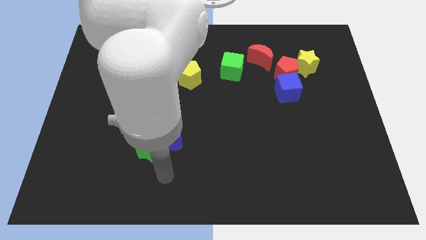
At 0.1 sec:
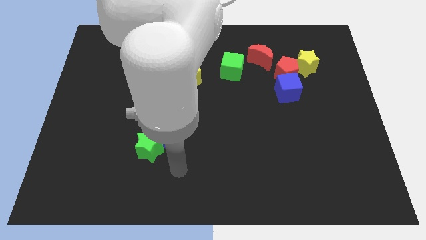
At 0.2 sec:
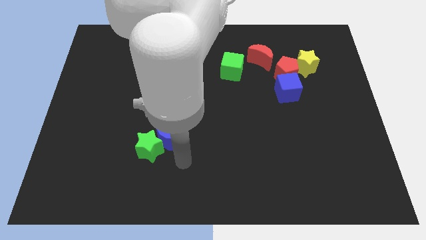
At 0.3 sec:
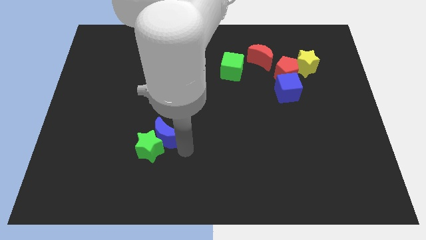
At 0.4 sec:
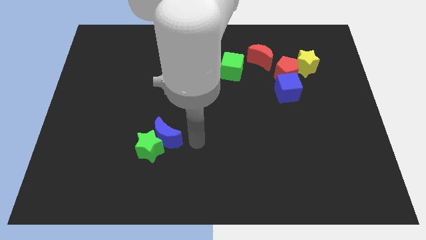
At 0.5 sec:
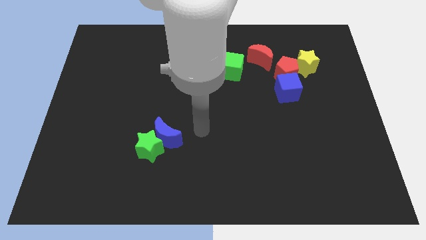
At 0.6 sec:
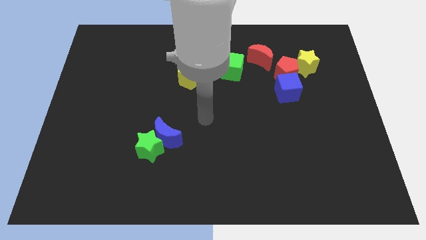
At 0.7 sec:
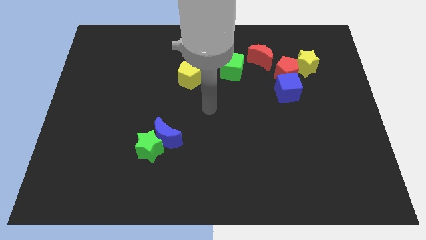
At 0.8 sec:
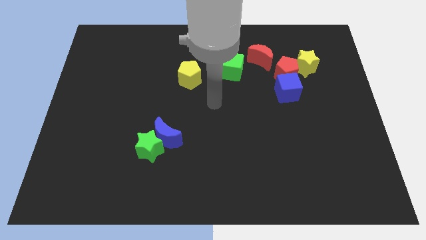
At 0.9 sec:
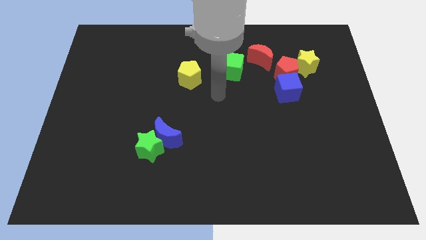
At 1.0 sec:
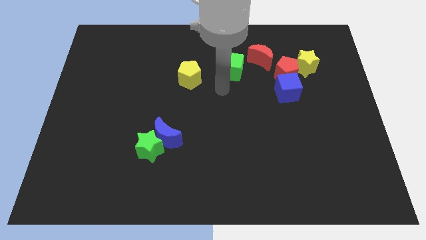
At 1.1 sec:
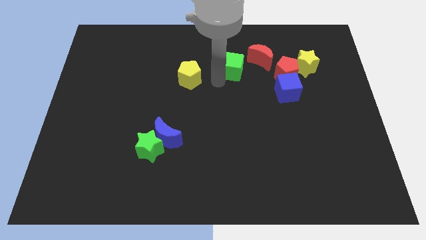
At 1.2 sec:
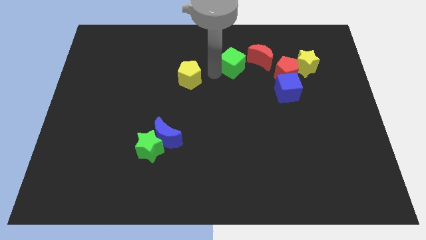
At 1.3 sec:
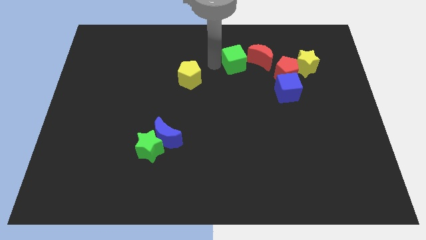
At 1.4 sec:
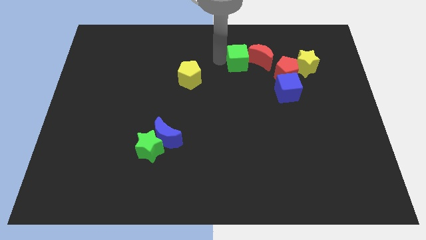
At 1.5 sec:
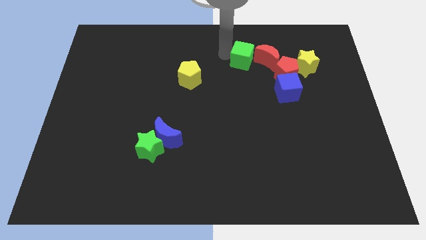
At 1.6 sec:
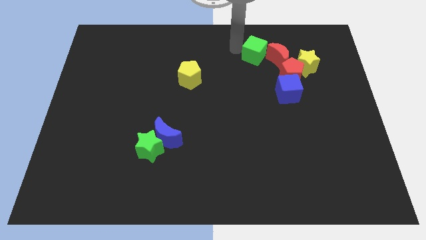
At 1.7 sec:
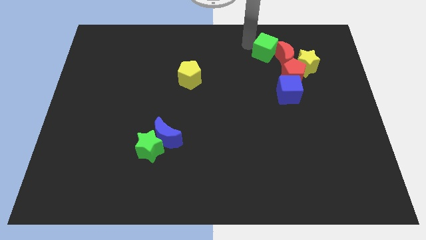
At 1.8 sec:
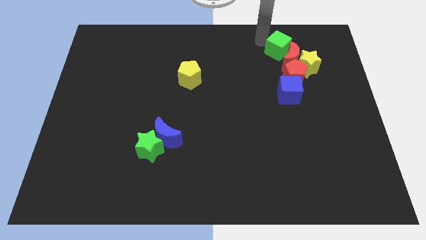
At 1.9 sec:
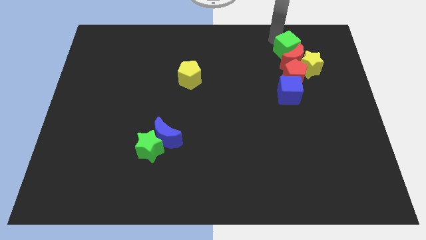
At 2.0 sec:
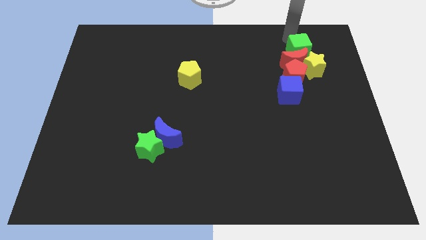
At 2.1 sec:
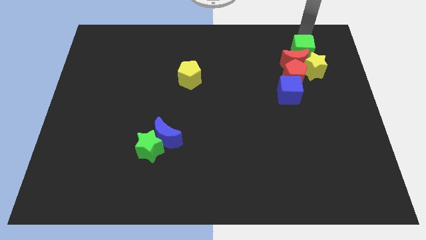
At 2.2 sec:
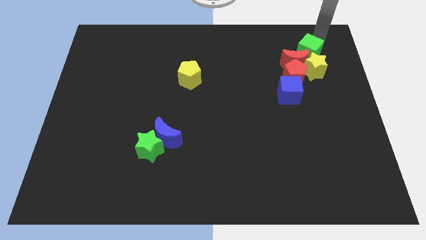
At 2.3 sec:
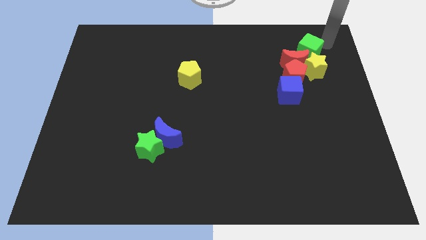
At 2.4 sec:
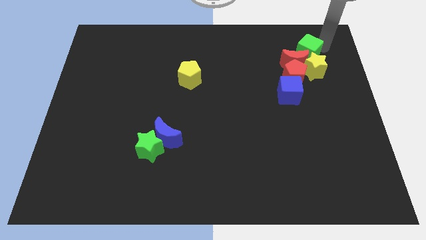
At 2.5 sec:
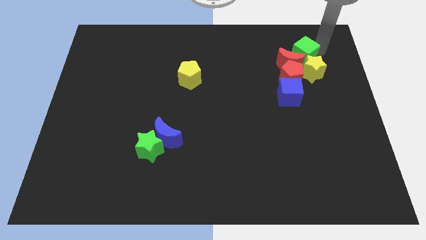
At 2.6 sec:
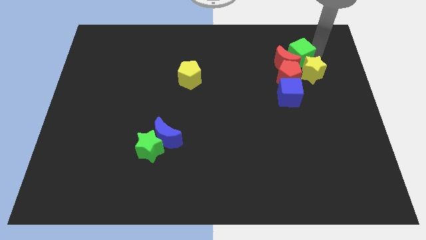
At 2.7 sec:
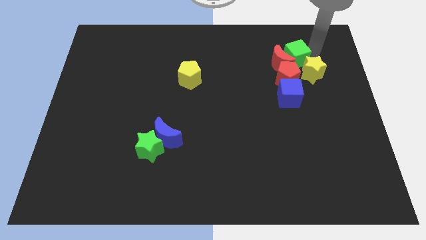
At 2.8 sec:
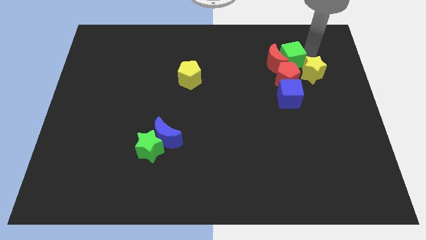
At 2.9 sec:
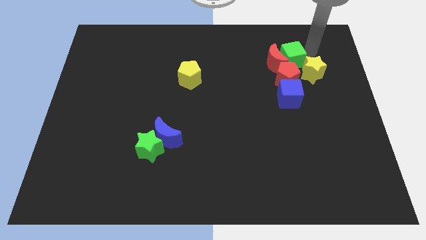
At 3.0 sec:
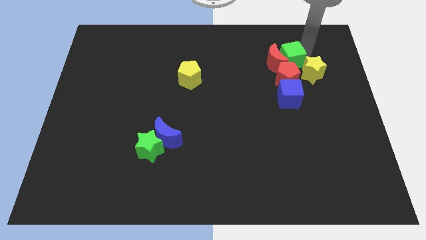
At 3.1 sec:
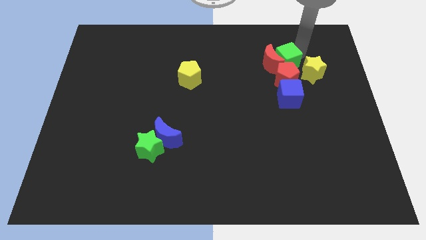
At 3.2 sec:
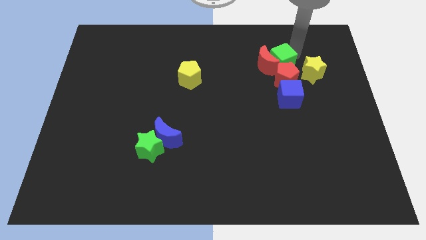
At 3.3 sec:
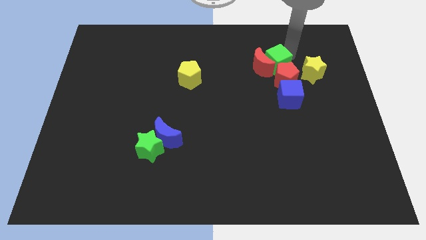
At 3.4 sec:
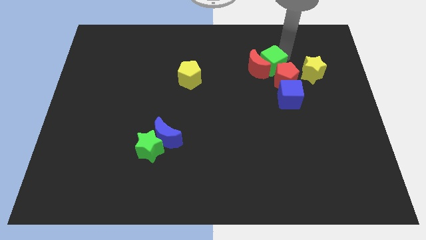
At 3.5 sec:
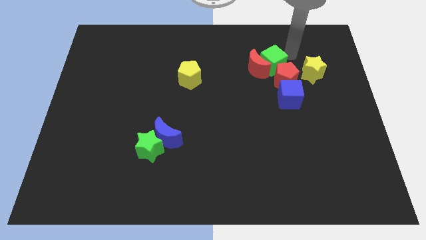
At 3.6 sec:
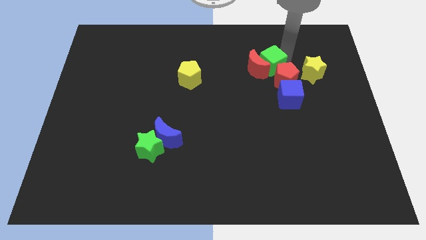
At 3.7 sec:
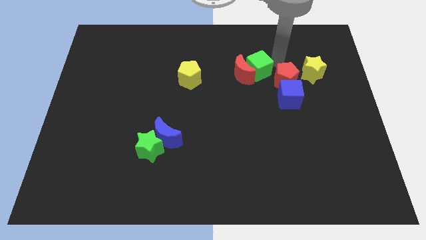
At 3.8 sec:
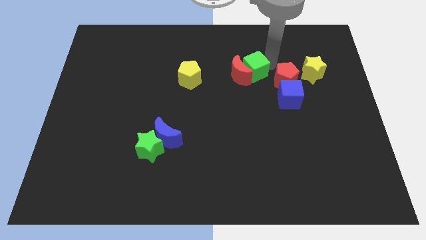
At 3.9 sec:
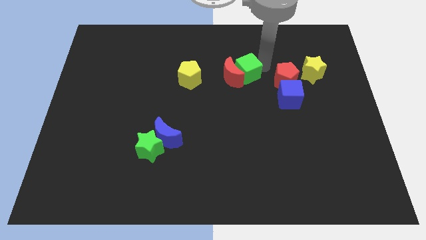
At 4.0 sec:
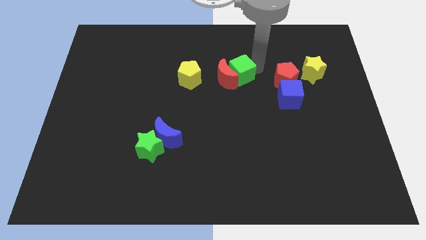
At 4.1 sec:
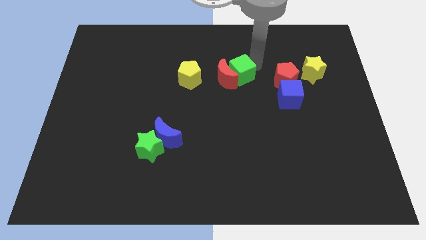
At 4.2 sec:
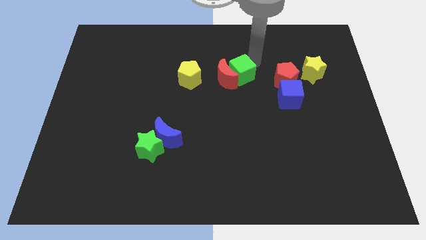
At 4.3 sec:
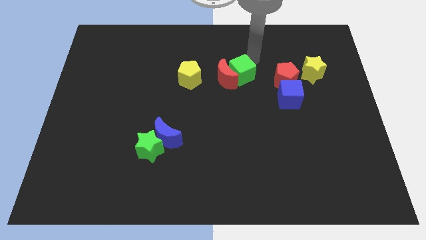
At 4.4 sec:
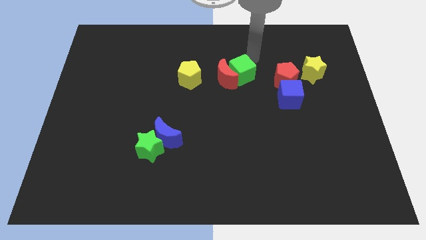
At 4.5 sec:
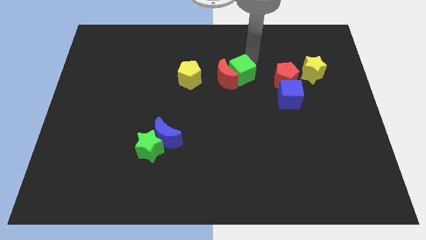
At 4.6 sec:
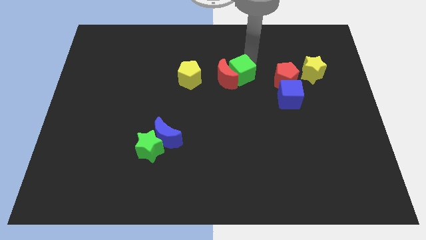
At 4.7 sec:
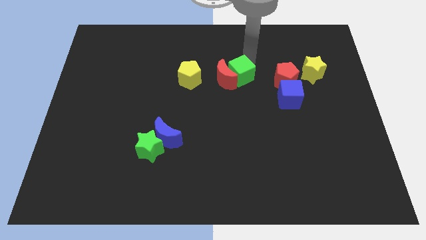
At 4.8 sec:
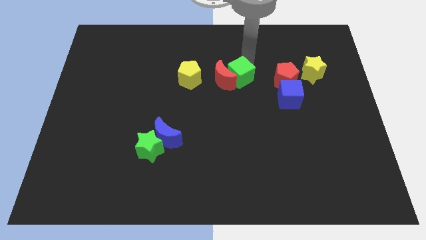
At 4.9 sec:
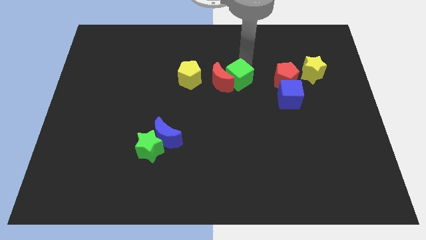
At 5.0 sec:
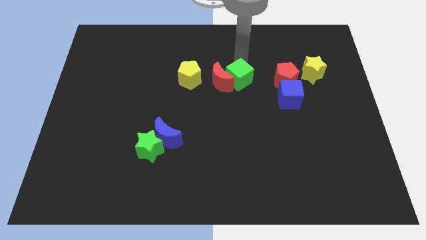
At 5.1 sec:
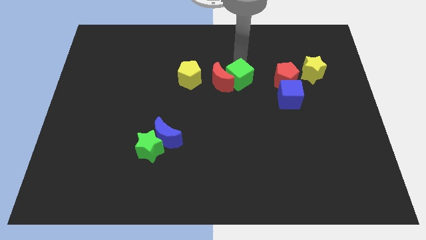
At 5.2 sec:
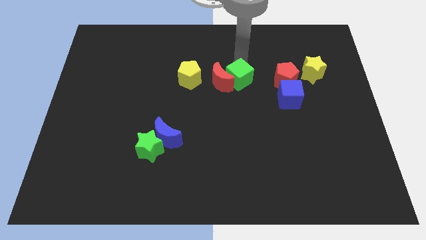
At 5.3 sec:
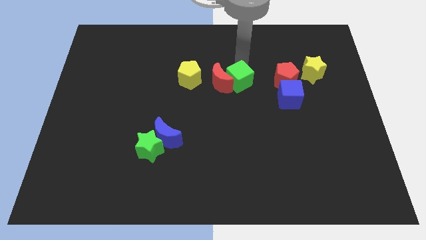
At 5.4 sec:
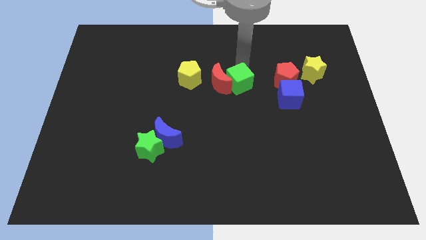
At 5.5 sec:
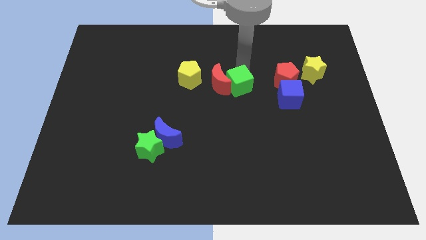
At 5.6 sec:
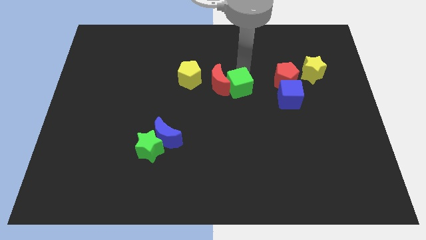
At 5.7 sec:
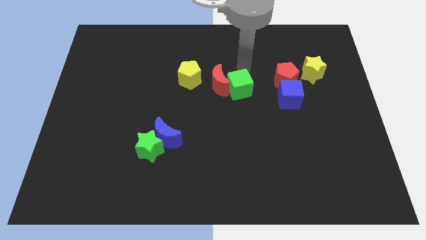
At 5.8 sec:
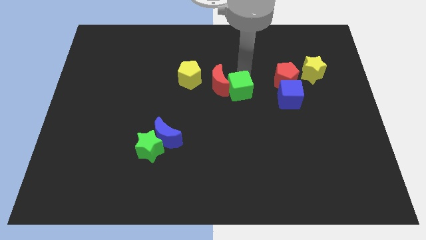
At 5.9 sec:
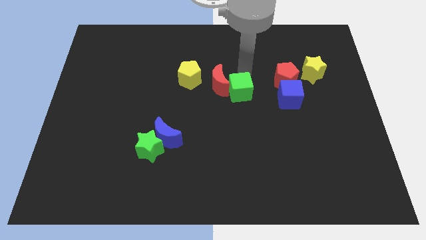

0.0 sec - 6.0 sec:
move the green cube a little downwards

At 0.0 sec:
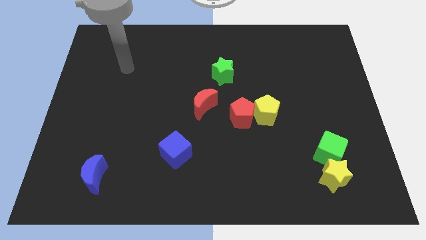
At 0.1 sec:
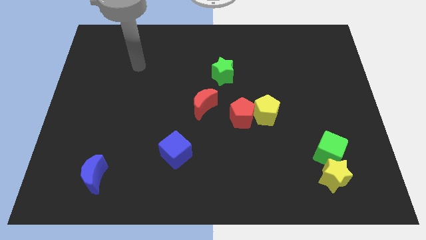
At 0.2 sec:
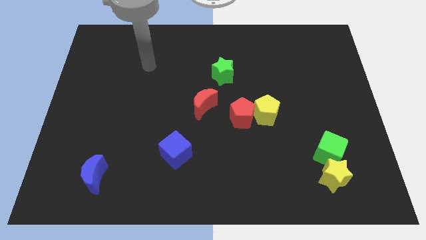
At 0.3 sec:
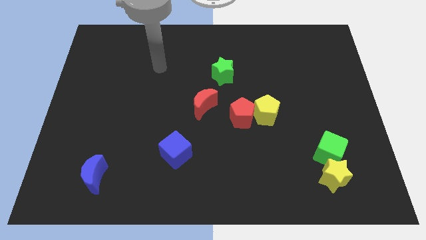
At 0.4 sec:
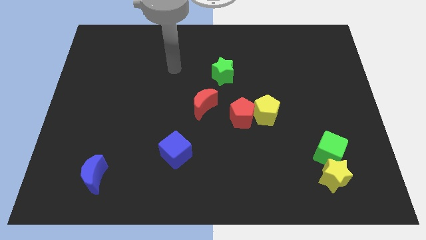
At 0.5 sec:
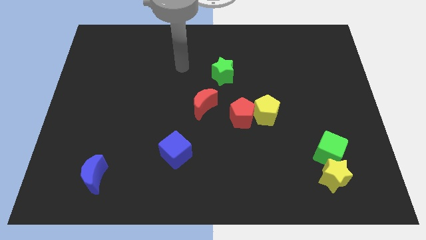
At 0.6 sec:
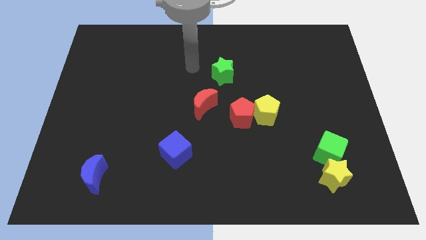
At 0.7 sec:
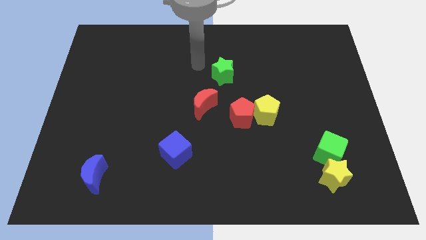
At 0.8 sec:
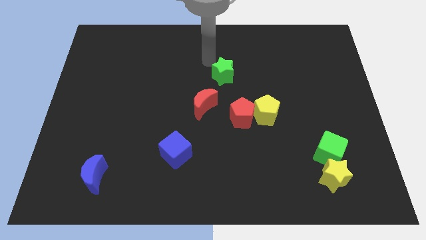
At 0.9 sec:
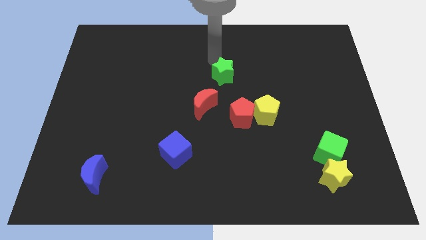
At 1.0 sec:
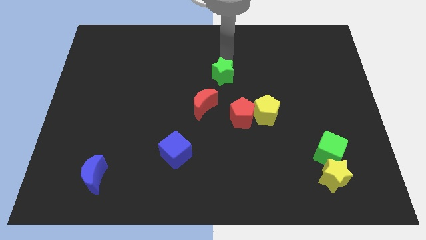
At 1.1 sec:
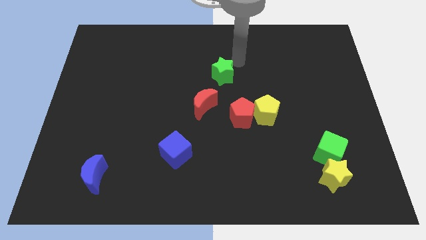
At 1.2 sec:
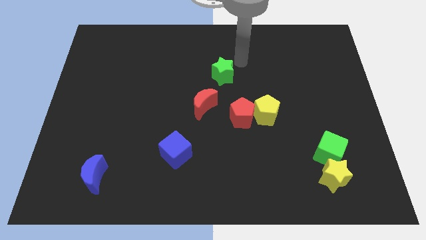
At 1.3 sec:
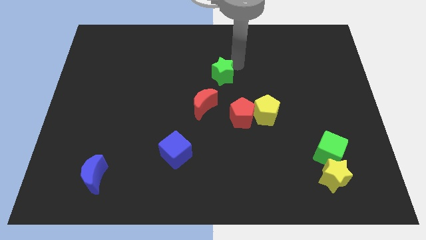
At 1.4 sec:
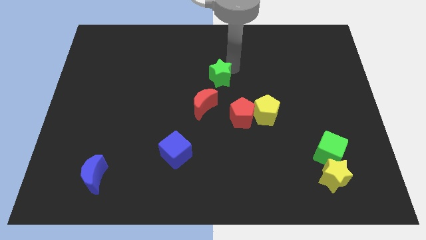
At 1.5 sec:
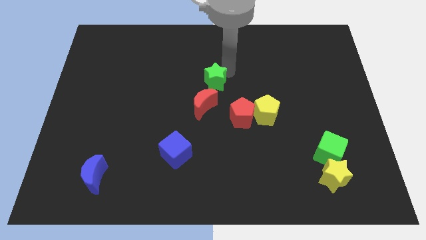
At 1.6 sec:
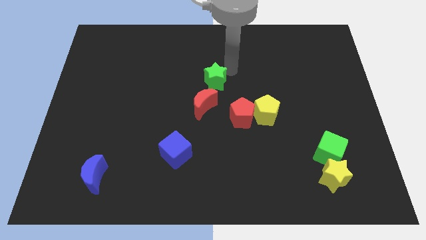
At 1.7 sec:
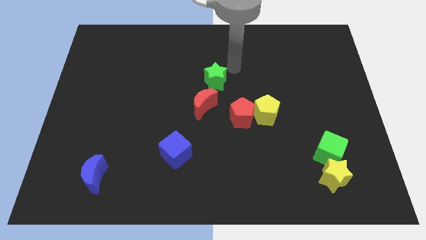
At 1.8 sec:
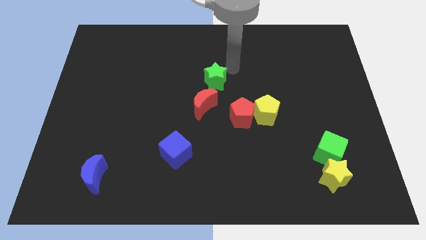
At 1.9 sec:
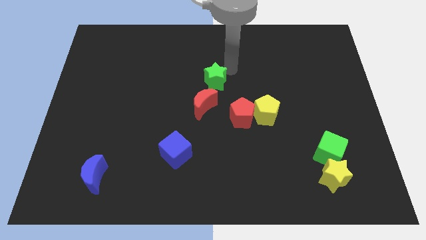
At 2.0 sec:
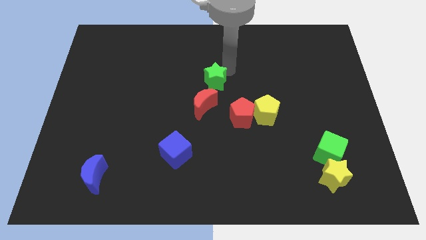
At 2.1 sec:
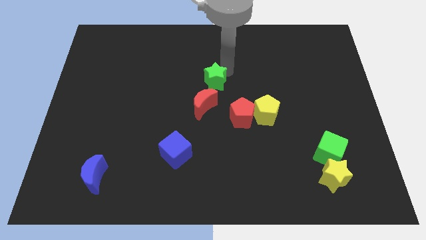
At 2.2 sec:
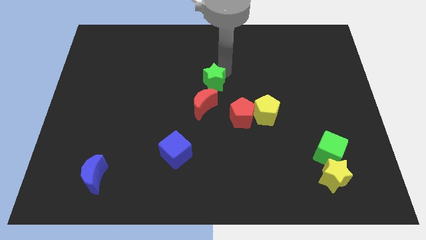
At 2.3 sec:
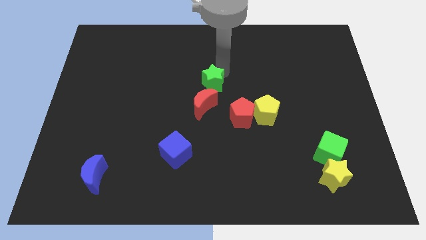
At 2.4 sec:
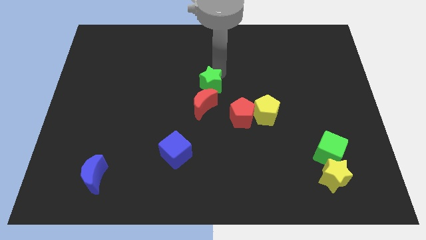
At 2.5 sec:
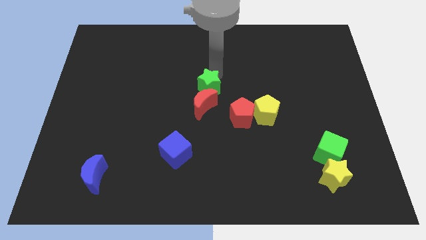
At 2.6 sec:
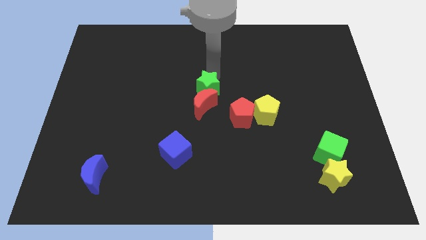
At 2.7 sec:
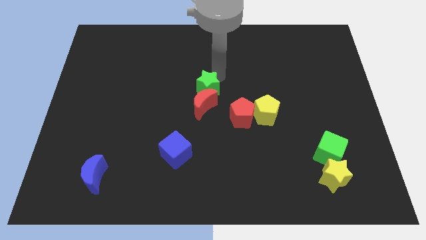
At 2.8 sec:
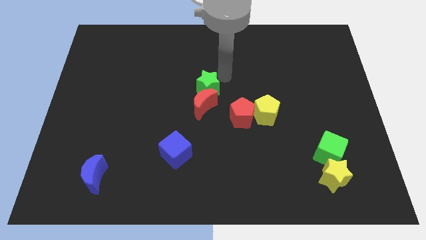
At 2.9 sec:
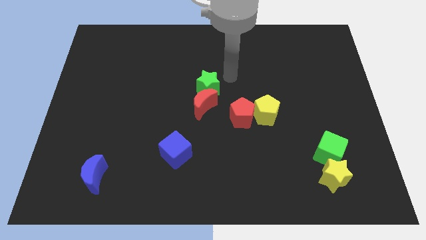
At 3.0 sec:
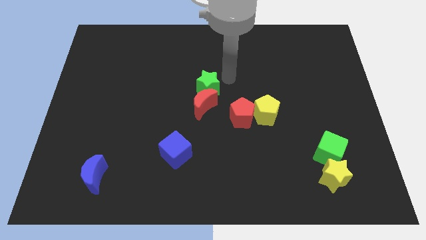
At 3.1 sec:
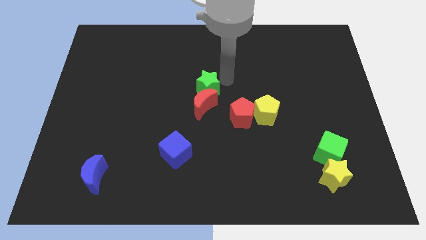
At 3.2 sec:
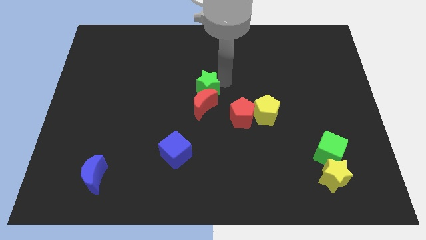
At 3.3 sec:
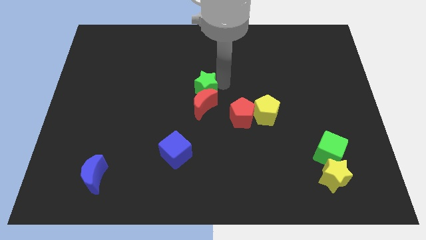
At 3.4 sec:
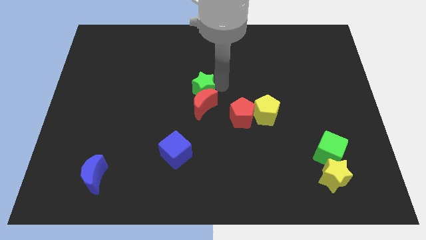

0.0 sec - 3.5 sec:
push the green star diagonally downwards and to the left a bit
